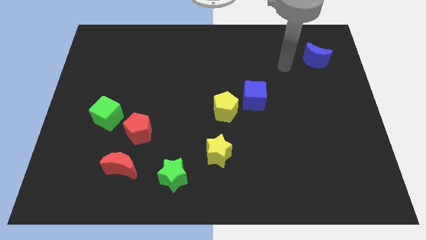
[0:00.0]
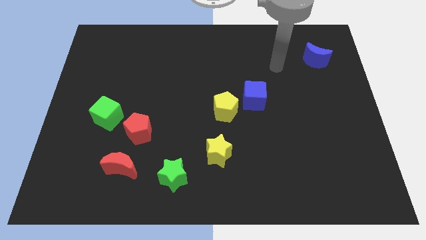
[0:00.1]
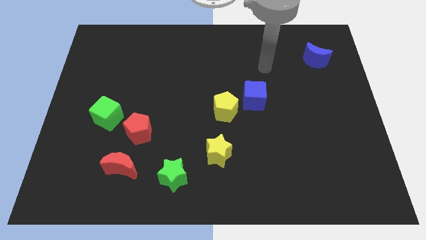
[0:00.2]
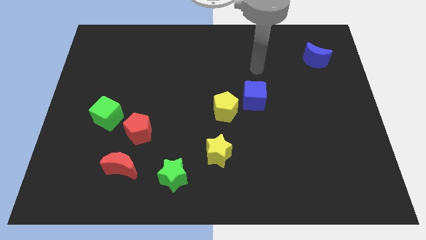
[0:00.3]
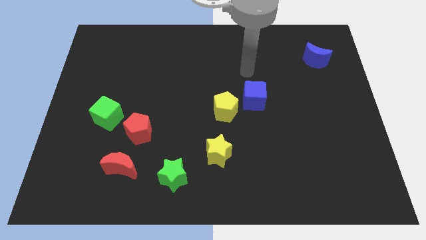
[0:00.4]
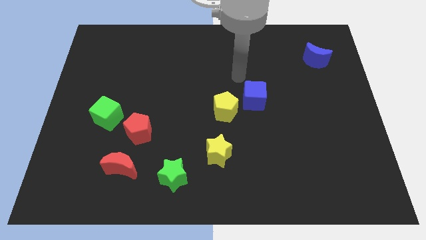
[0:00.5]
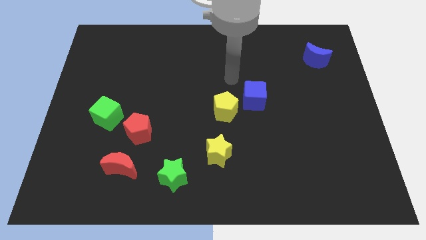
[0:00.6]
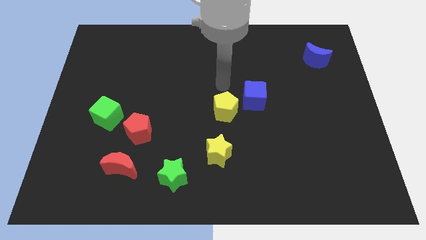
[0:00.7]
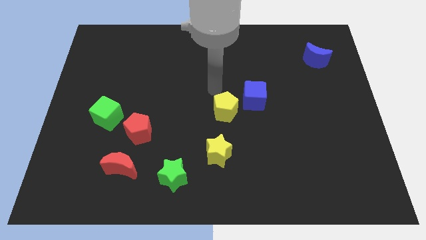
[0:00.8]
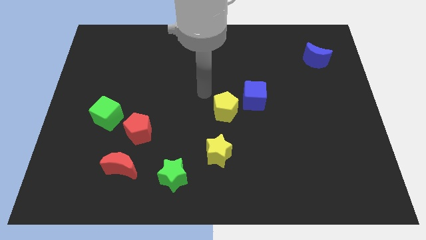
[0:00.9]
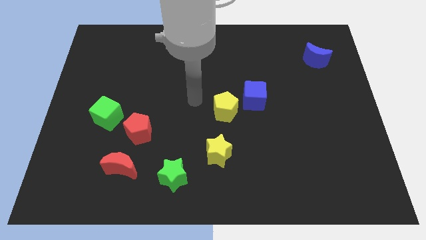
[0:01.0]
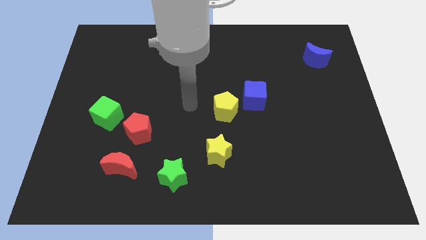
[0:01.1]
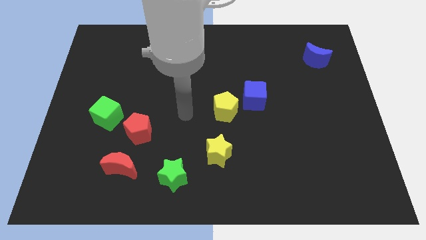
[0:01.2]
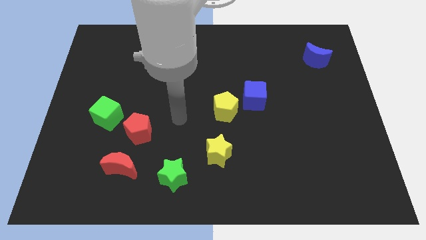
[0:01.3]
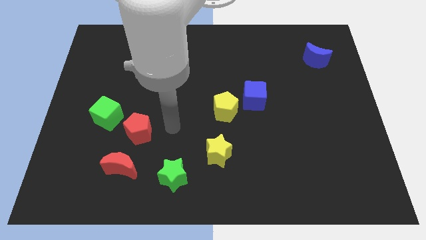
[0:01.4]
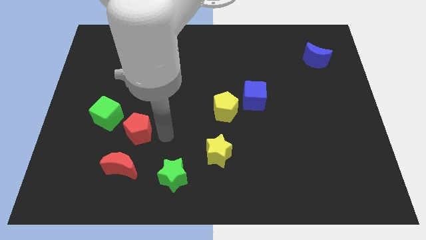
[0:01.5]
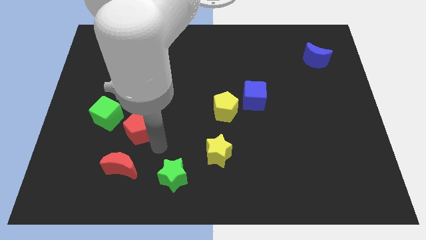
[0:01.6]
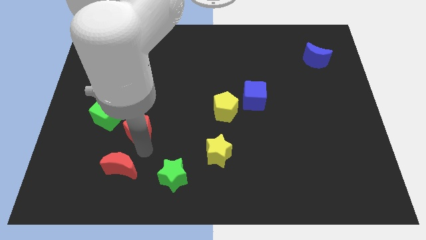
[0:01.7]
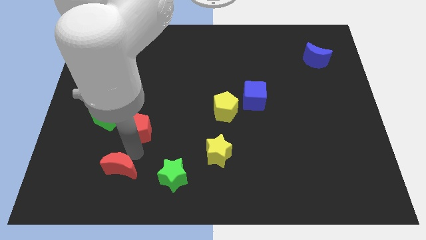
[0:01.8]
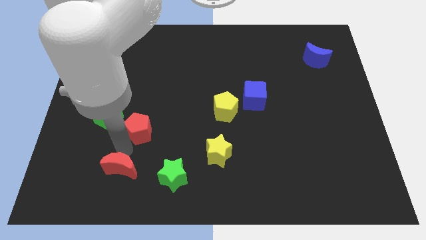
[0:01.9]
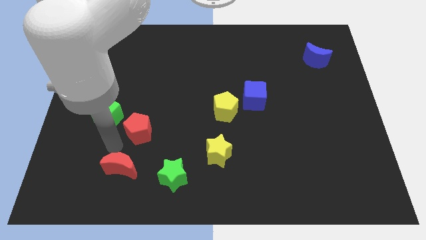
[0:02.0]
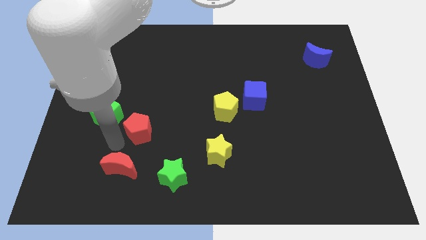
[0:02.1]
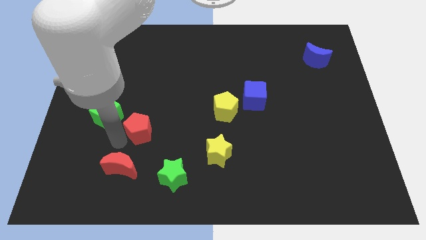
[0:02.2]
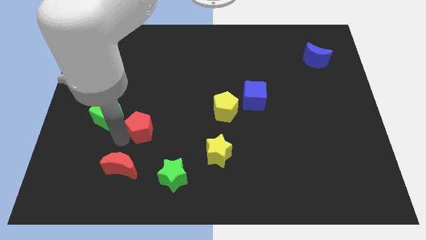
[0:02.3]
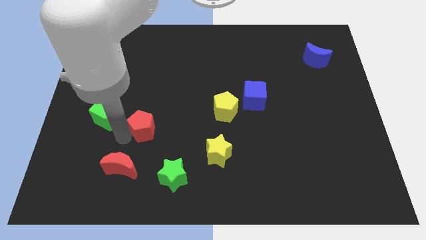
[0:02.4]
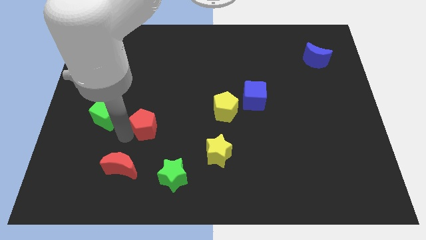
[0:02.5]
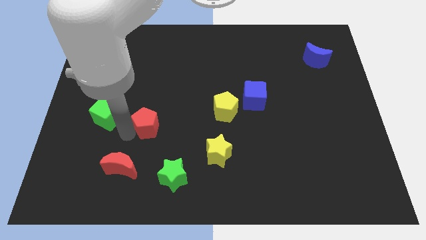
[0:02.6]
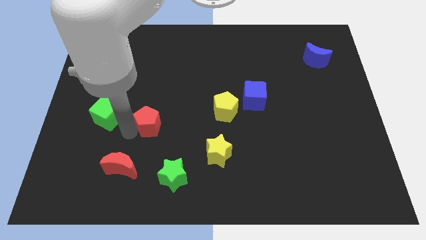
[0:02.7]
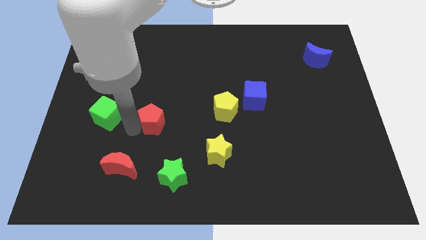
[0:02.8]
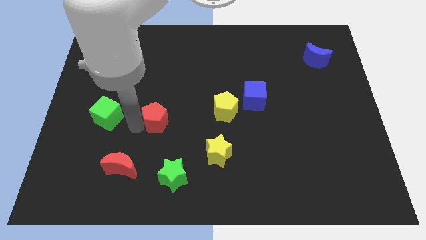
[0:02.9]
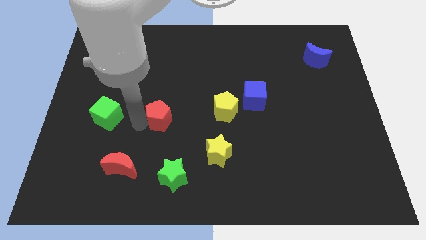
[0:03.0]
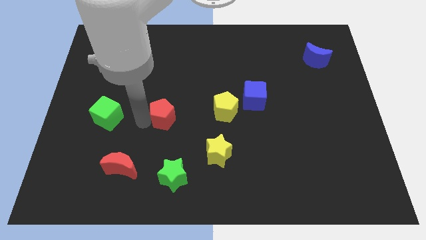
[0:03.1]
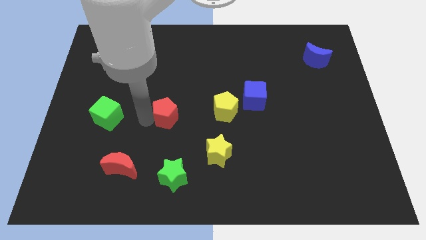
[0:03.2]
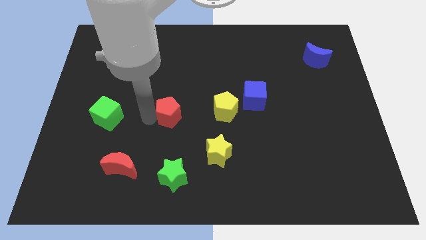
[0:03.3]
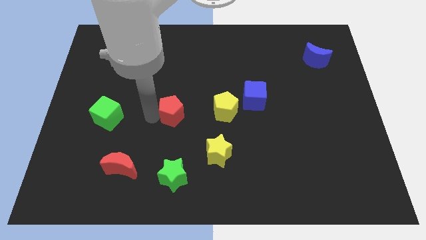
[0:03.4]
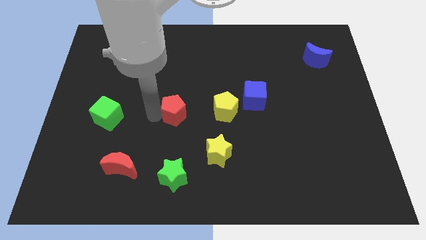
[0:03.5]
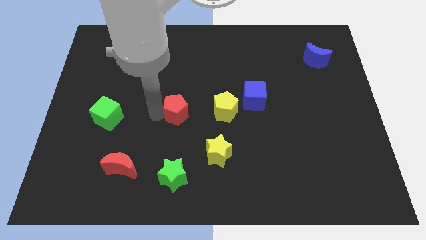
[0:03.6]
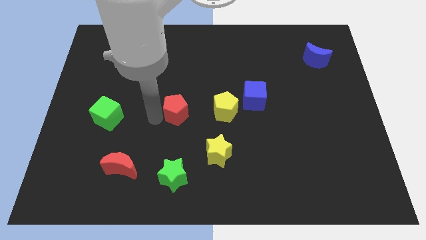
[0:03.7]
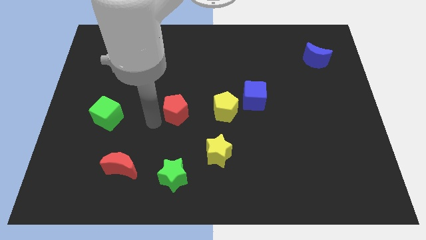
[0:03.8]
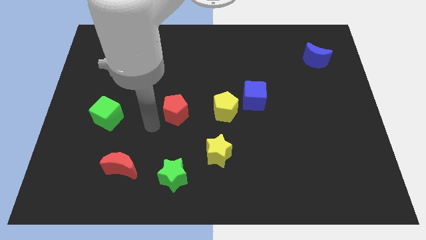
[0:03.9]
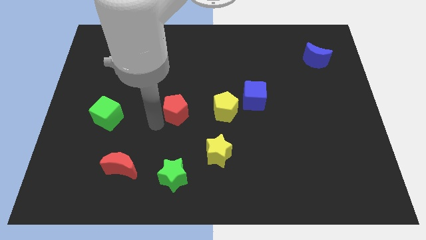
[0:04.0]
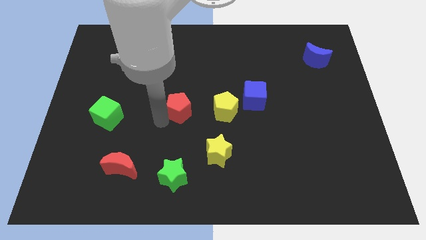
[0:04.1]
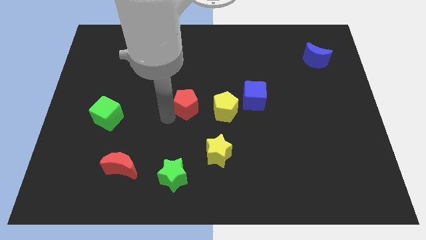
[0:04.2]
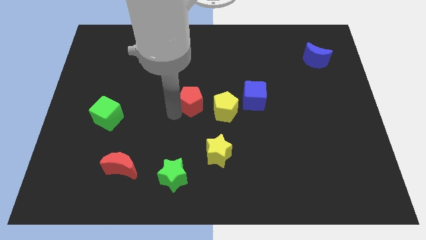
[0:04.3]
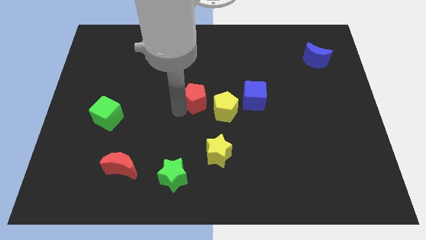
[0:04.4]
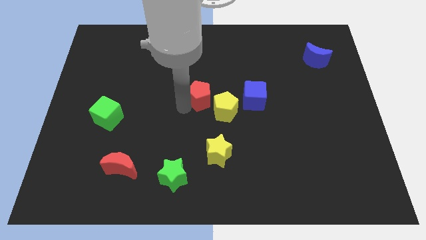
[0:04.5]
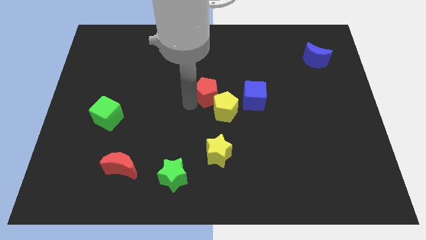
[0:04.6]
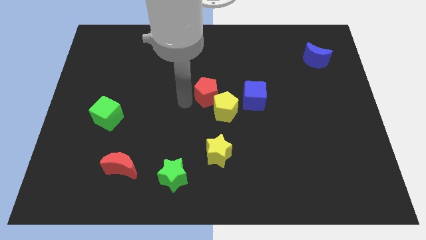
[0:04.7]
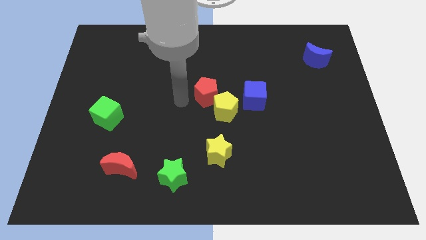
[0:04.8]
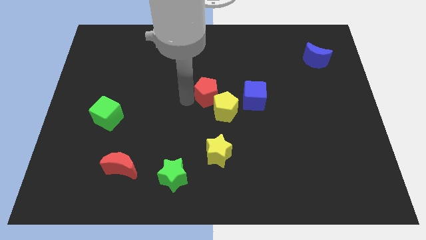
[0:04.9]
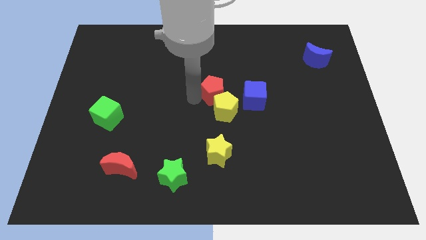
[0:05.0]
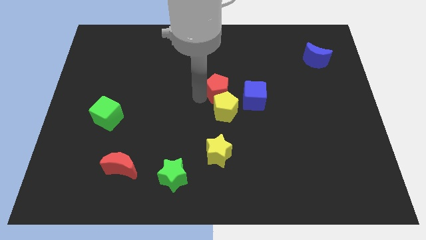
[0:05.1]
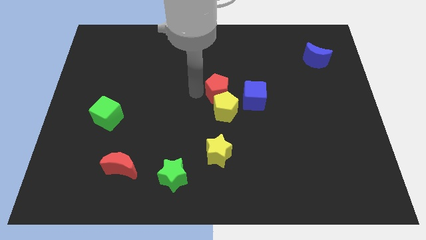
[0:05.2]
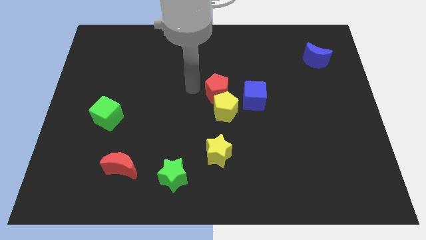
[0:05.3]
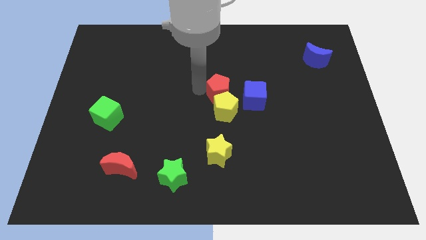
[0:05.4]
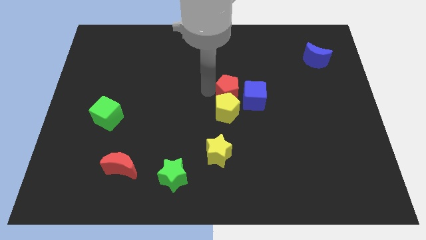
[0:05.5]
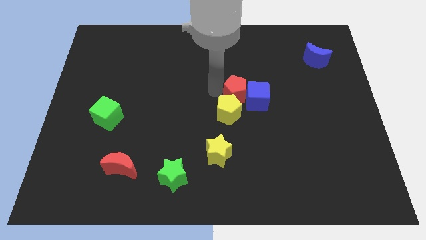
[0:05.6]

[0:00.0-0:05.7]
push the red pentagon towards the blue cube

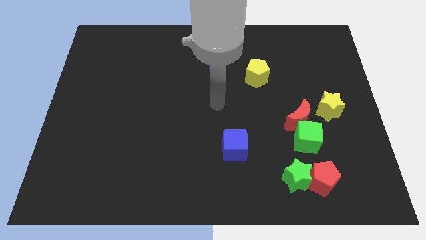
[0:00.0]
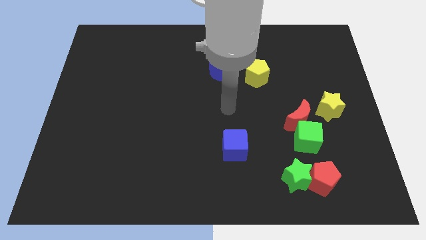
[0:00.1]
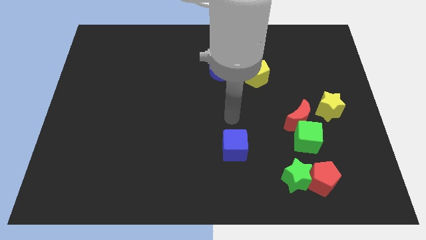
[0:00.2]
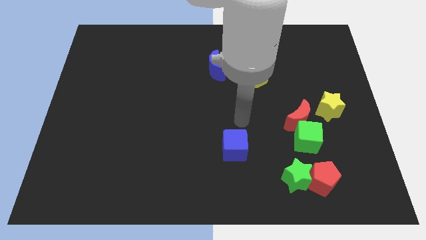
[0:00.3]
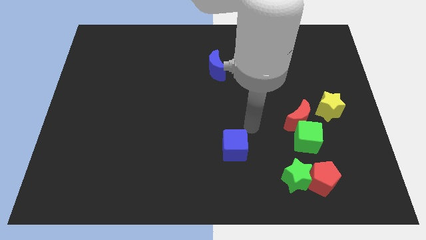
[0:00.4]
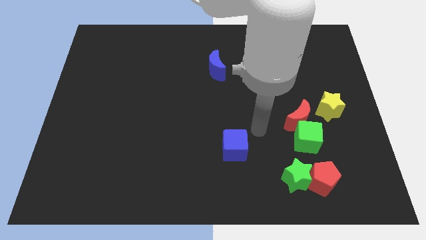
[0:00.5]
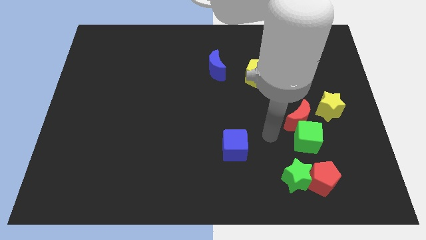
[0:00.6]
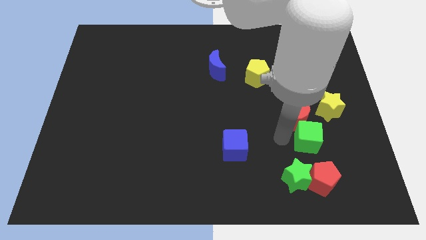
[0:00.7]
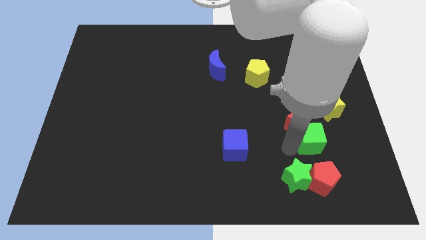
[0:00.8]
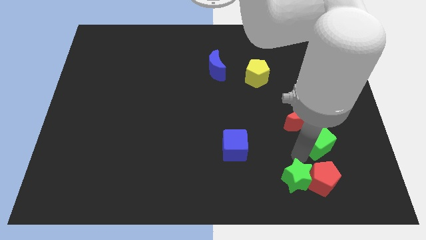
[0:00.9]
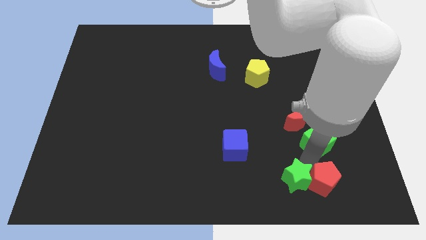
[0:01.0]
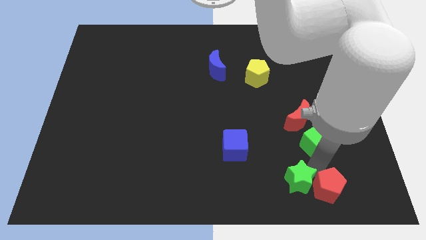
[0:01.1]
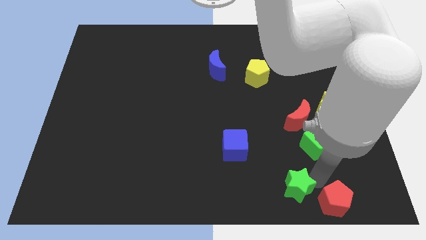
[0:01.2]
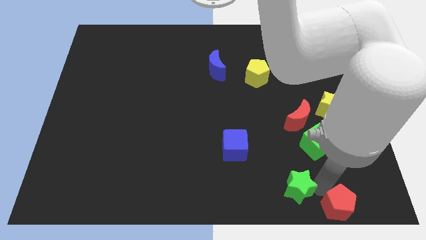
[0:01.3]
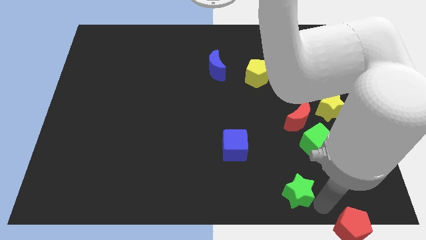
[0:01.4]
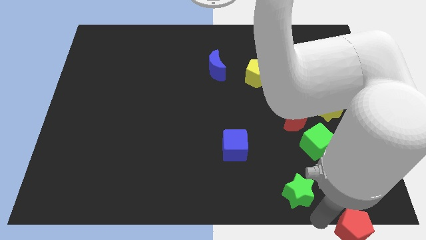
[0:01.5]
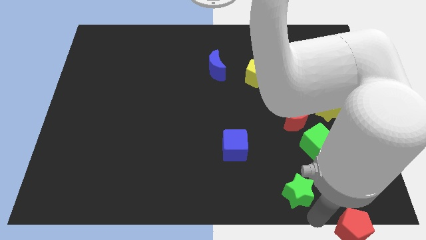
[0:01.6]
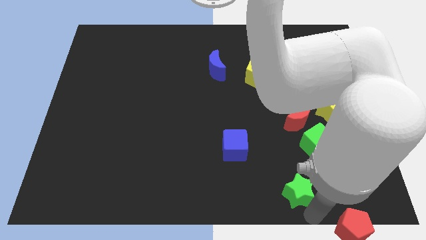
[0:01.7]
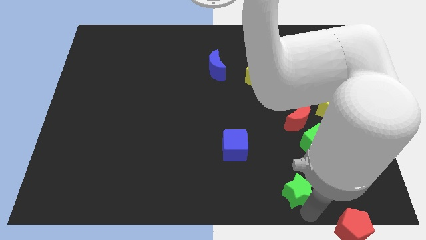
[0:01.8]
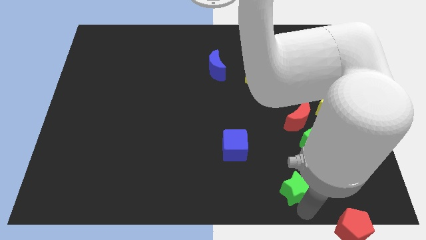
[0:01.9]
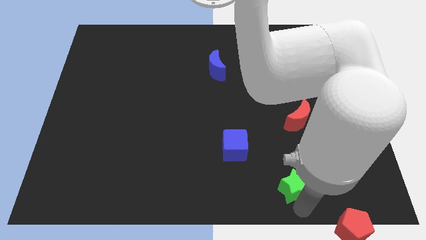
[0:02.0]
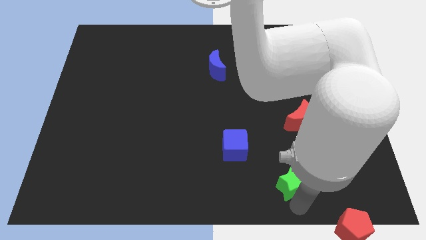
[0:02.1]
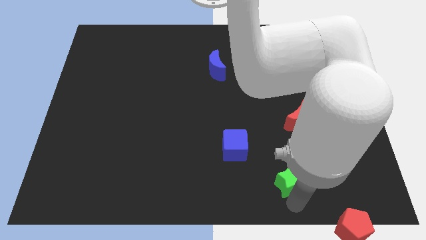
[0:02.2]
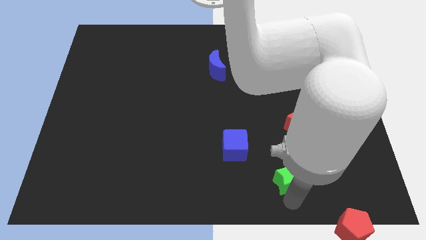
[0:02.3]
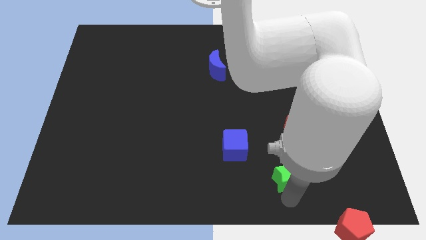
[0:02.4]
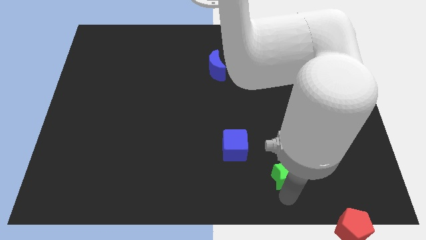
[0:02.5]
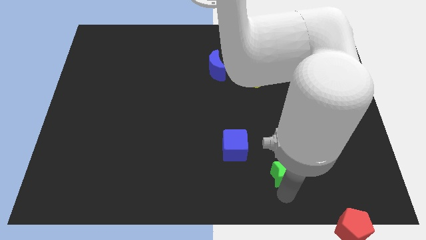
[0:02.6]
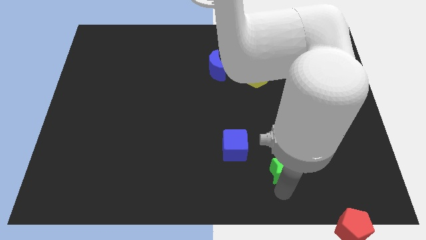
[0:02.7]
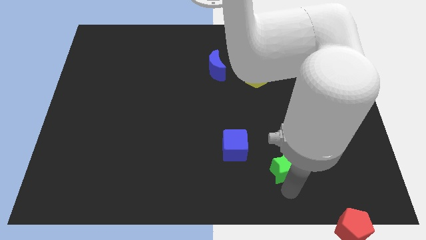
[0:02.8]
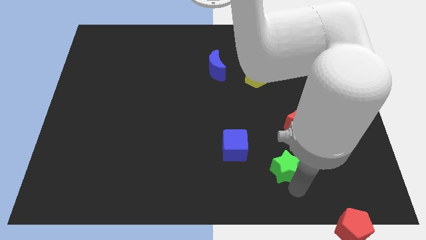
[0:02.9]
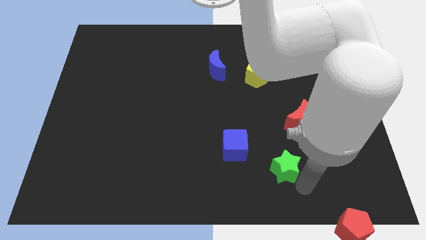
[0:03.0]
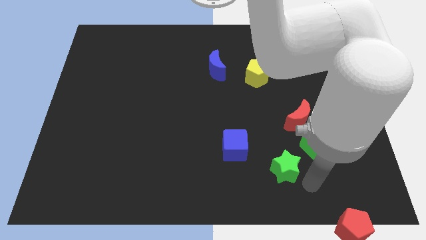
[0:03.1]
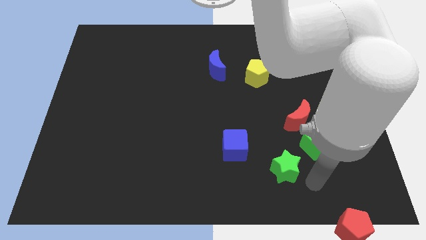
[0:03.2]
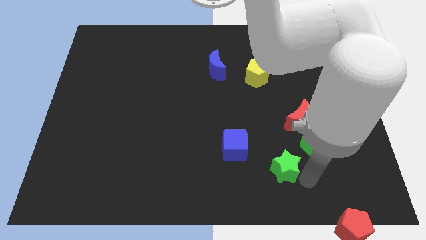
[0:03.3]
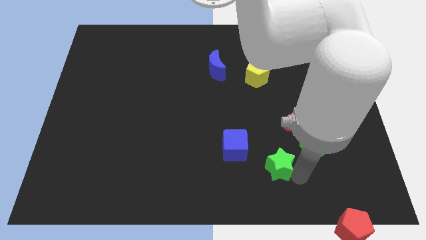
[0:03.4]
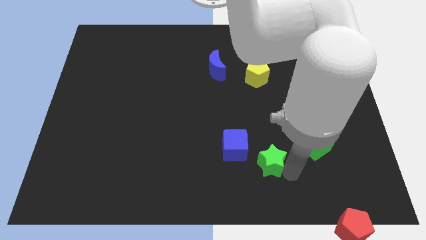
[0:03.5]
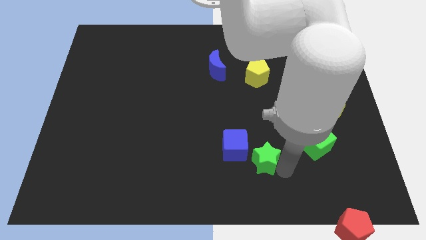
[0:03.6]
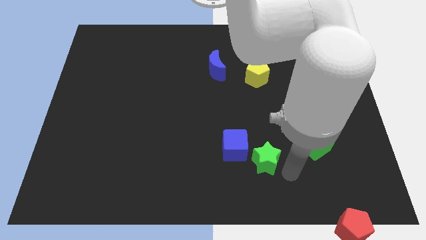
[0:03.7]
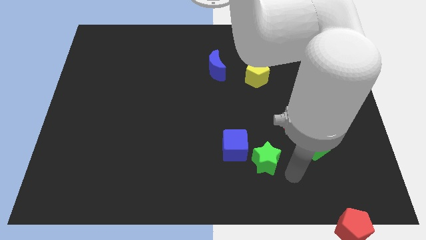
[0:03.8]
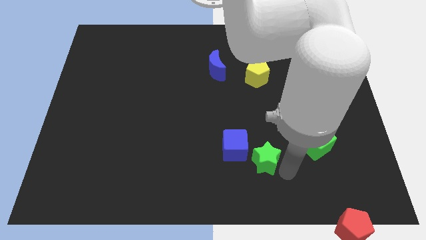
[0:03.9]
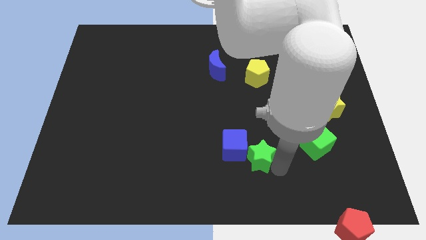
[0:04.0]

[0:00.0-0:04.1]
move the green star close to the blue cube
